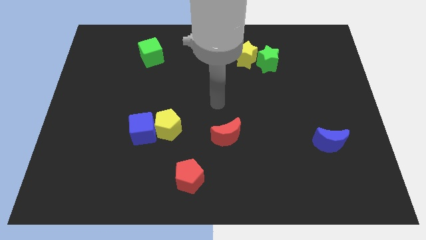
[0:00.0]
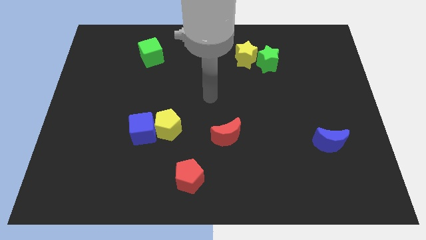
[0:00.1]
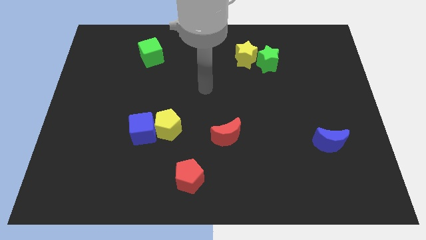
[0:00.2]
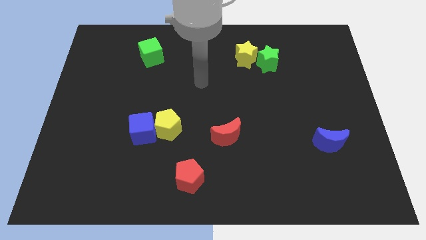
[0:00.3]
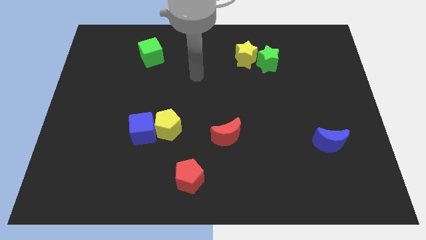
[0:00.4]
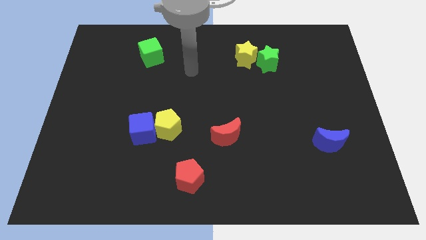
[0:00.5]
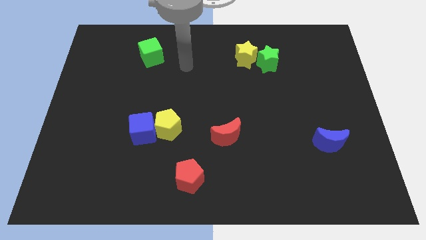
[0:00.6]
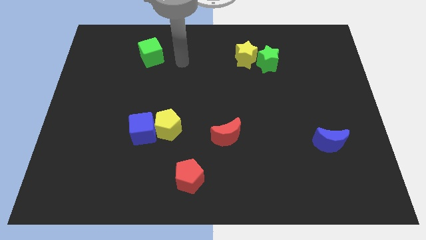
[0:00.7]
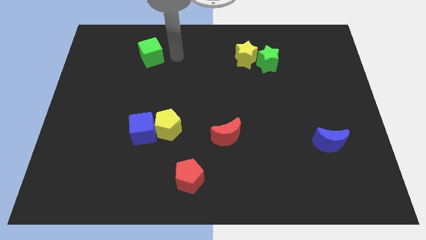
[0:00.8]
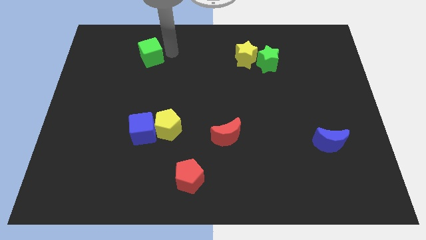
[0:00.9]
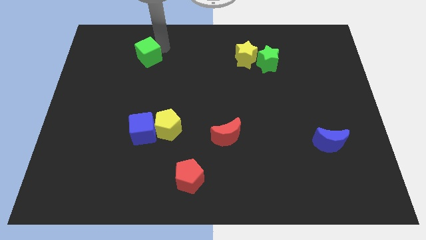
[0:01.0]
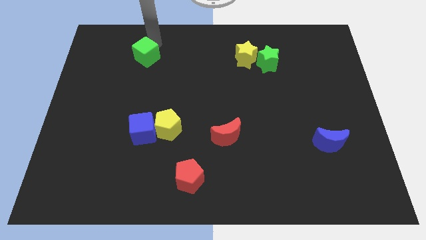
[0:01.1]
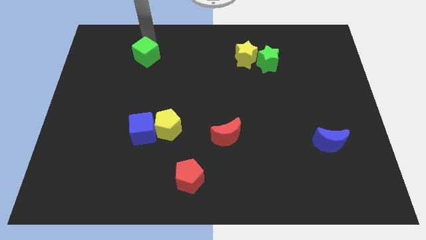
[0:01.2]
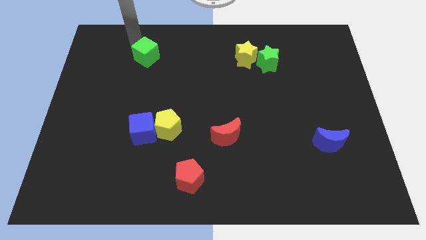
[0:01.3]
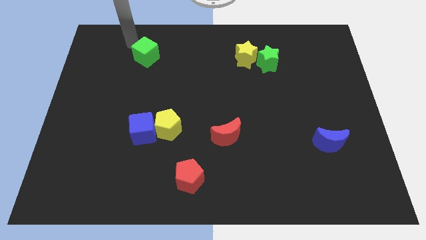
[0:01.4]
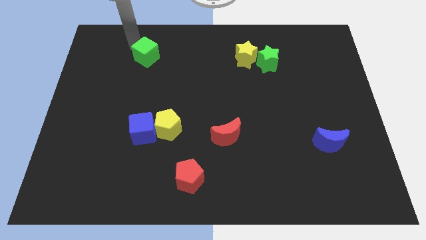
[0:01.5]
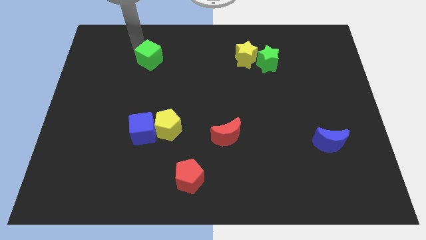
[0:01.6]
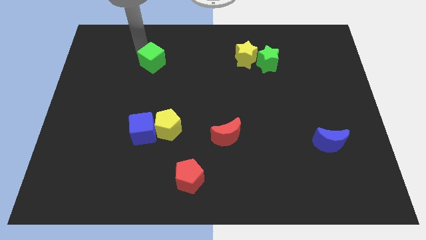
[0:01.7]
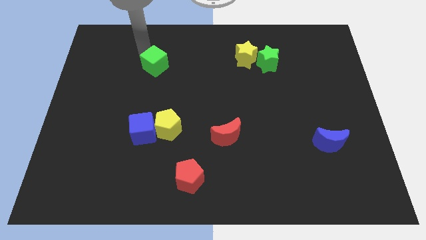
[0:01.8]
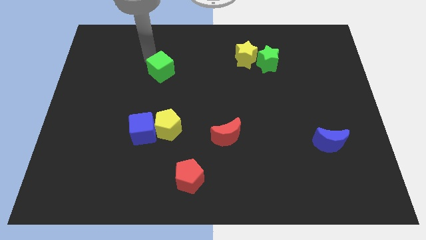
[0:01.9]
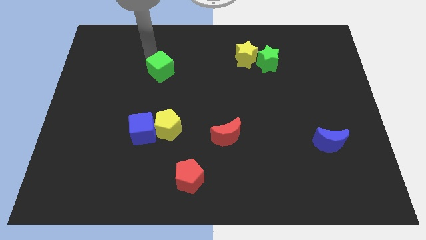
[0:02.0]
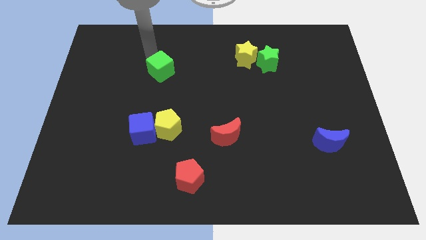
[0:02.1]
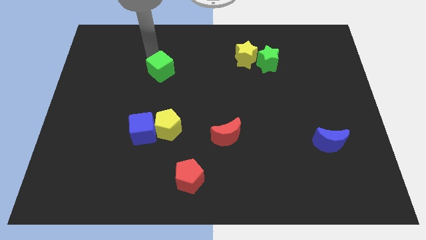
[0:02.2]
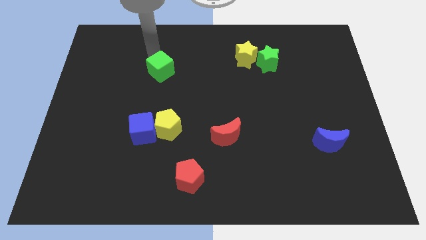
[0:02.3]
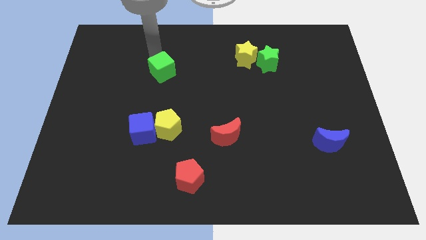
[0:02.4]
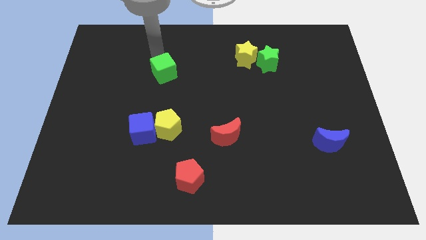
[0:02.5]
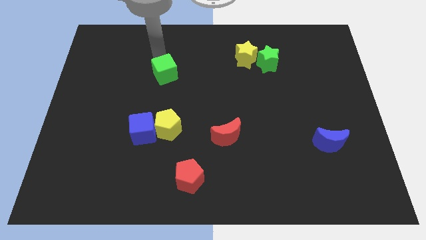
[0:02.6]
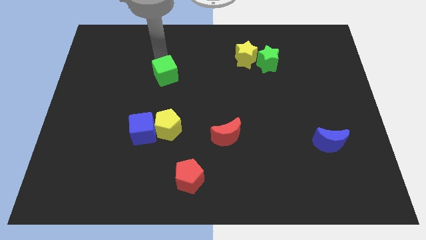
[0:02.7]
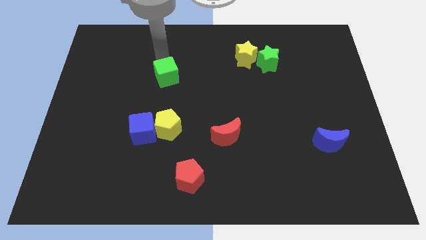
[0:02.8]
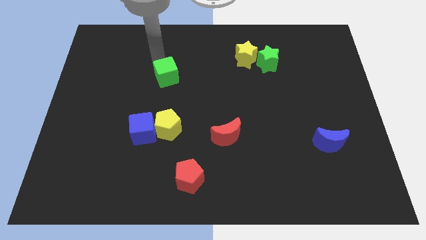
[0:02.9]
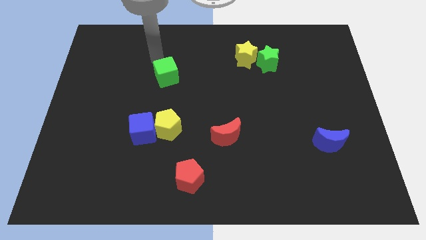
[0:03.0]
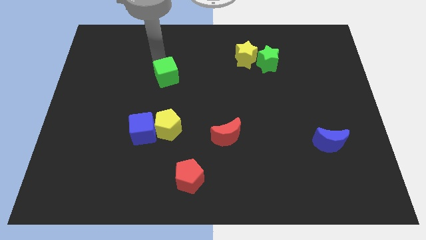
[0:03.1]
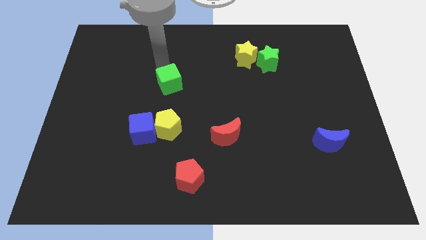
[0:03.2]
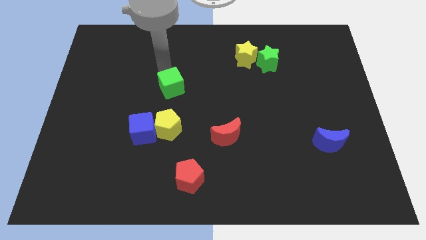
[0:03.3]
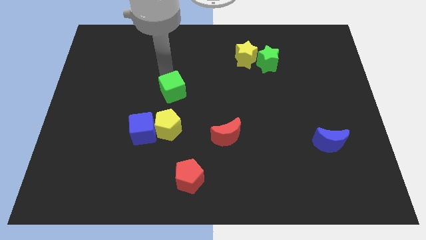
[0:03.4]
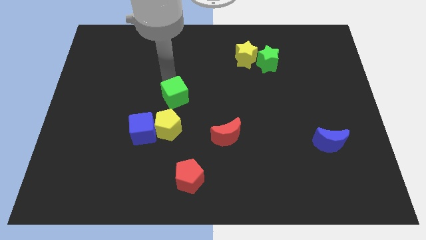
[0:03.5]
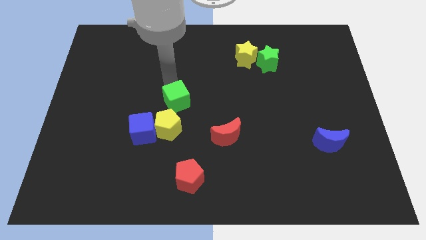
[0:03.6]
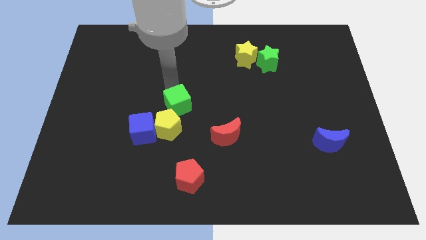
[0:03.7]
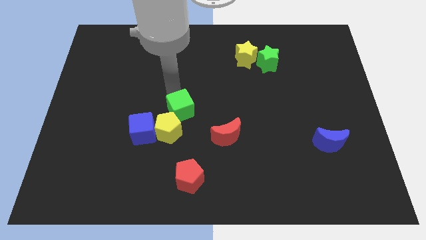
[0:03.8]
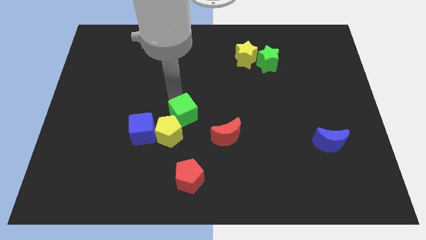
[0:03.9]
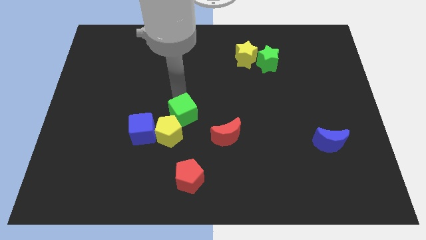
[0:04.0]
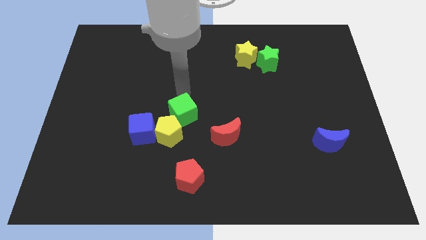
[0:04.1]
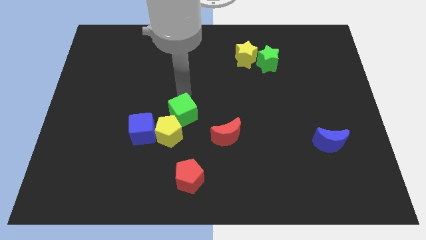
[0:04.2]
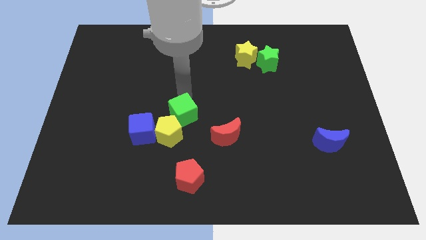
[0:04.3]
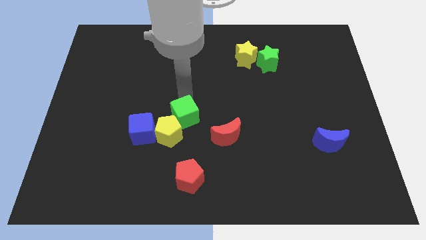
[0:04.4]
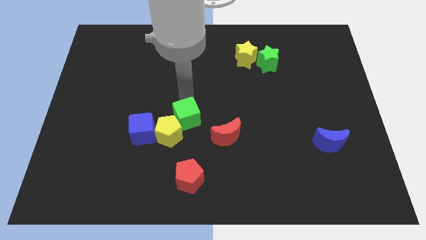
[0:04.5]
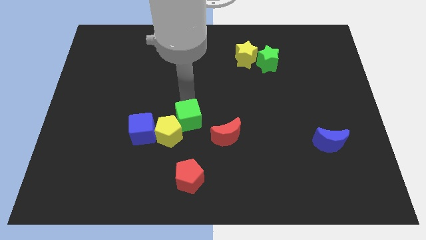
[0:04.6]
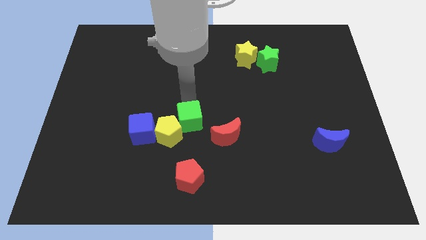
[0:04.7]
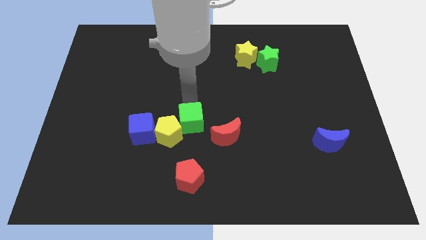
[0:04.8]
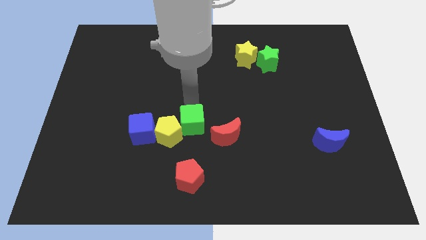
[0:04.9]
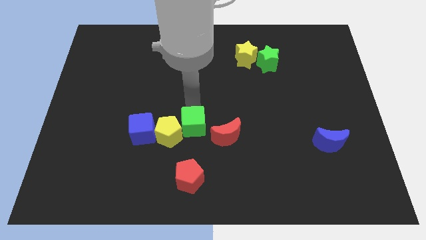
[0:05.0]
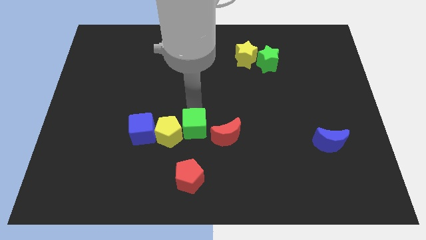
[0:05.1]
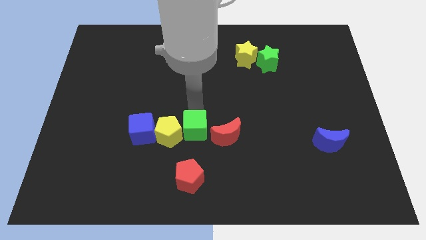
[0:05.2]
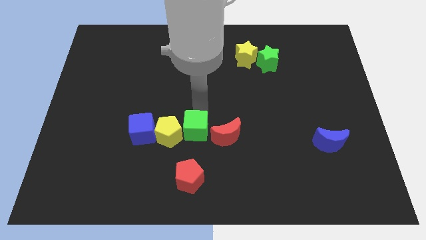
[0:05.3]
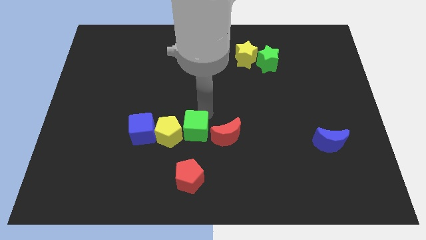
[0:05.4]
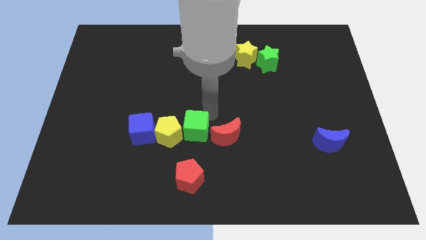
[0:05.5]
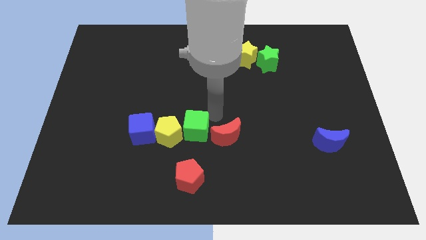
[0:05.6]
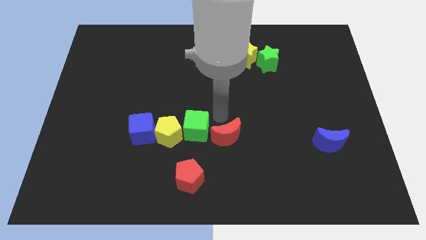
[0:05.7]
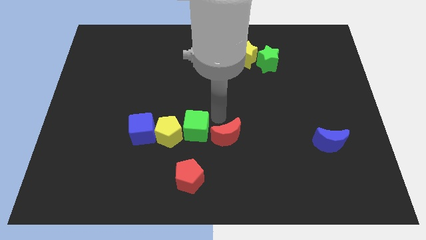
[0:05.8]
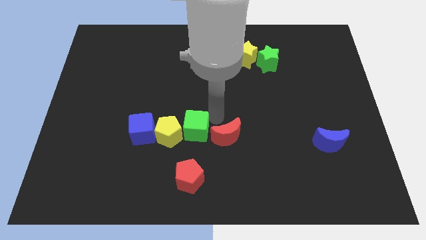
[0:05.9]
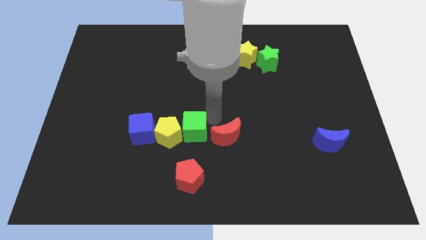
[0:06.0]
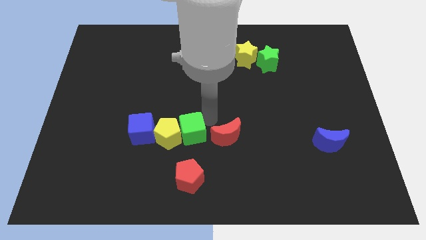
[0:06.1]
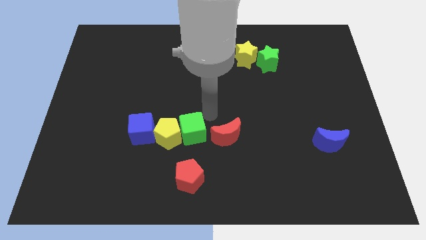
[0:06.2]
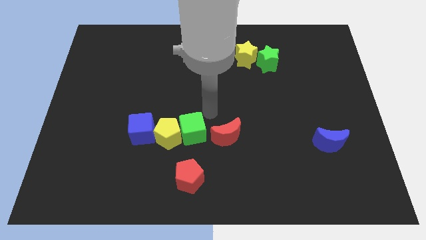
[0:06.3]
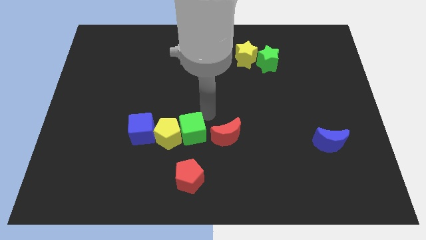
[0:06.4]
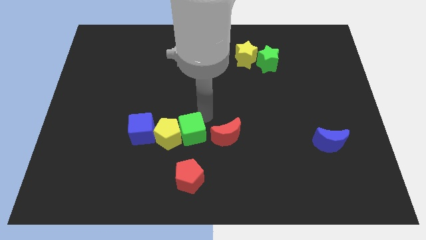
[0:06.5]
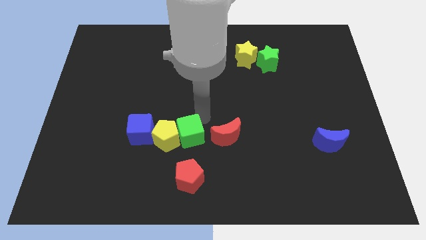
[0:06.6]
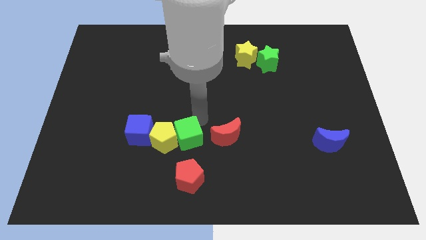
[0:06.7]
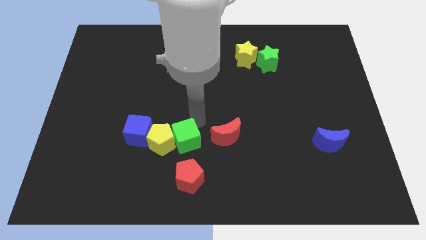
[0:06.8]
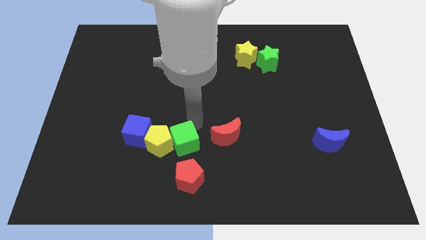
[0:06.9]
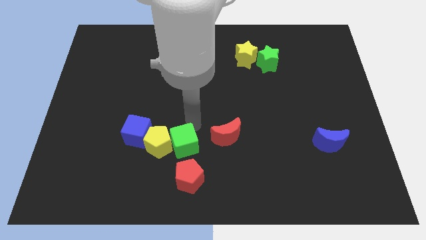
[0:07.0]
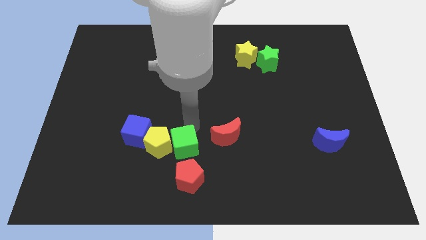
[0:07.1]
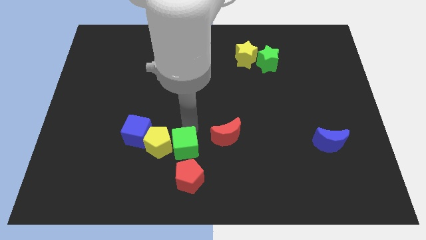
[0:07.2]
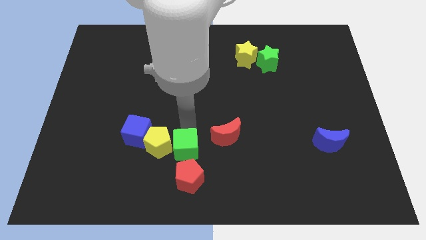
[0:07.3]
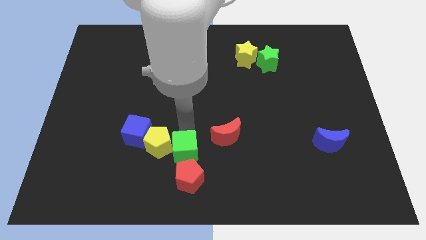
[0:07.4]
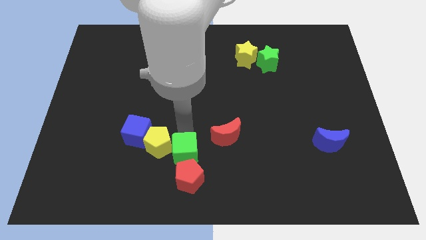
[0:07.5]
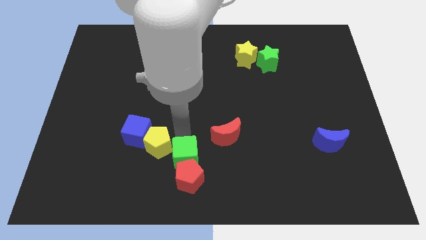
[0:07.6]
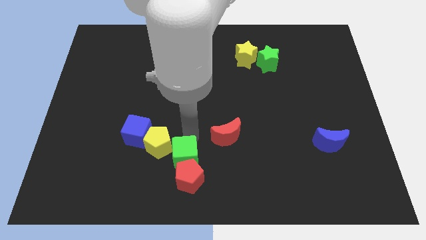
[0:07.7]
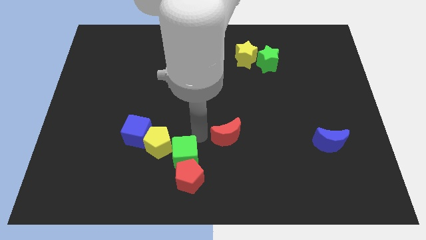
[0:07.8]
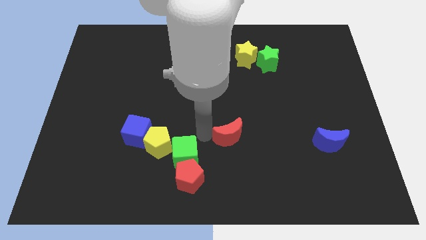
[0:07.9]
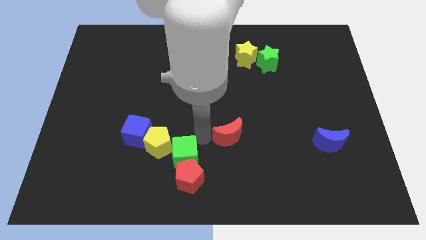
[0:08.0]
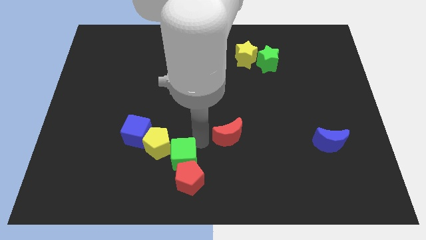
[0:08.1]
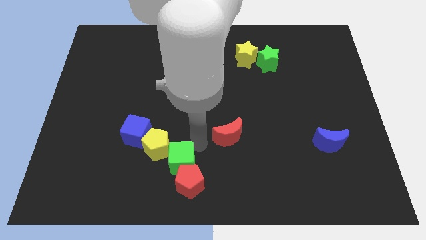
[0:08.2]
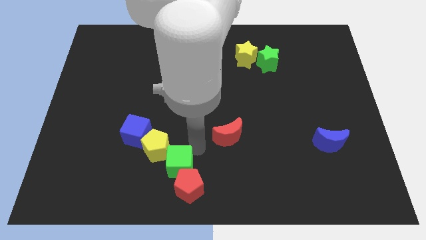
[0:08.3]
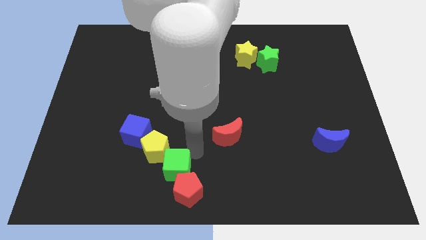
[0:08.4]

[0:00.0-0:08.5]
slide the green cube to the bottom side of the yellow pentagon
